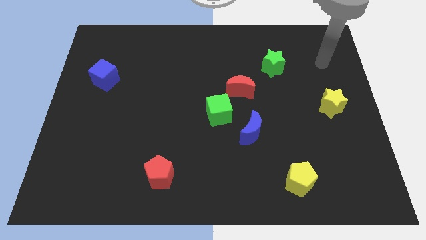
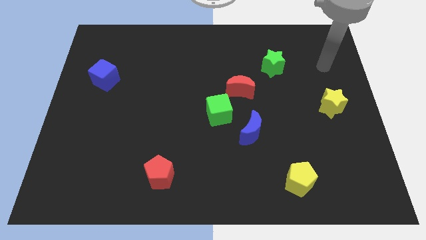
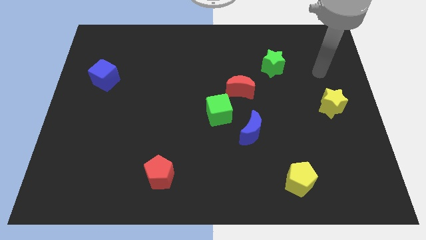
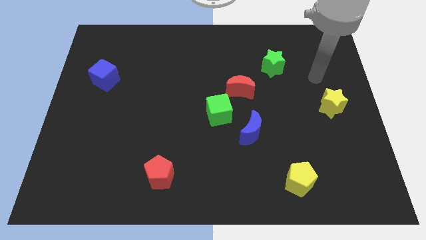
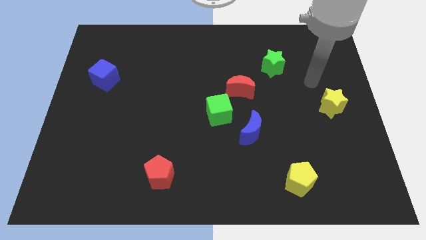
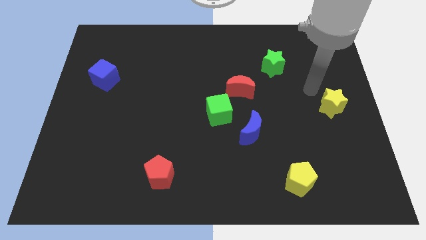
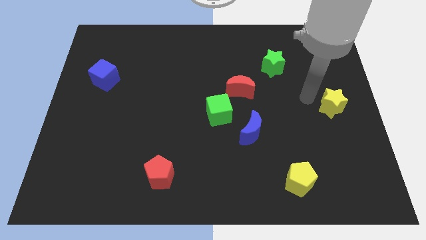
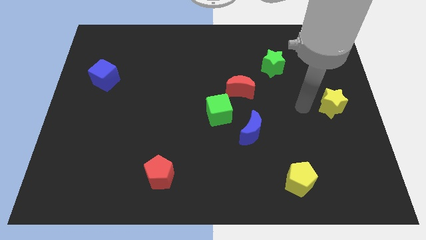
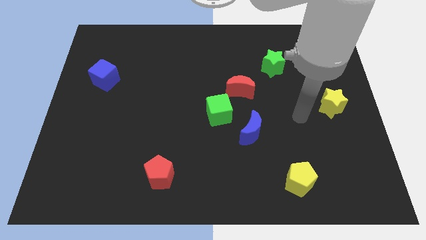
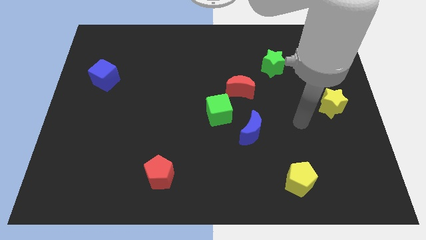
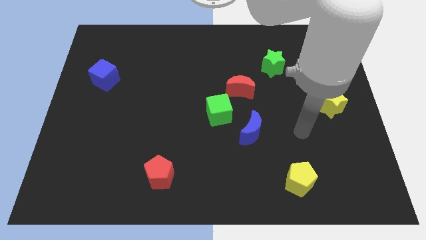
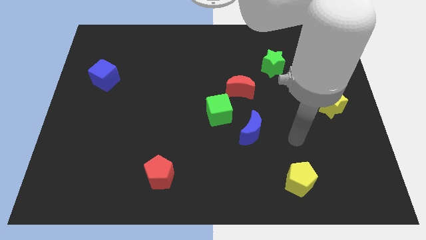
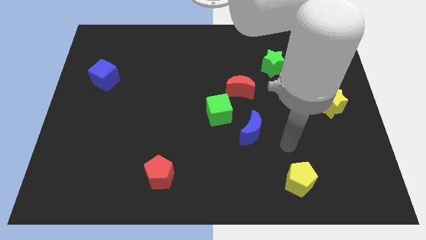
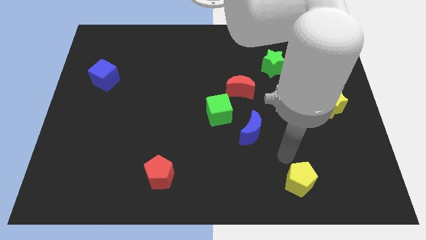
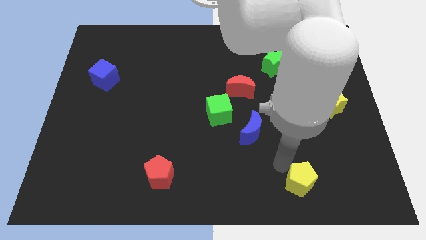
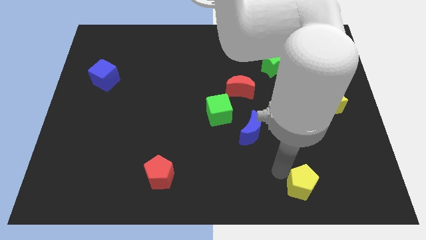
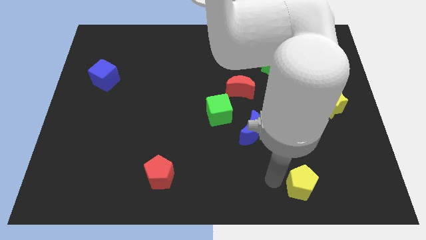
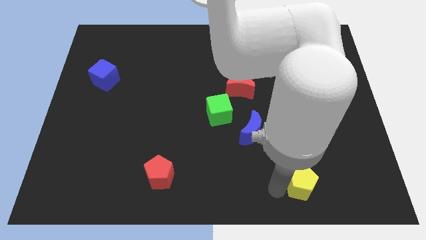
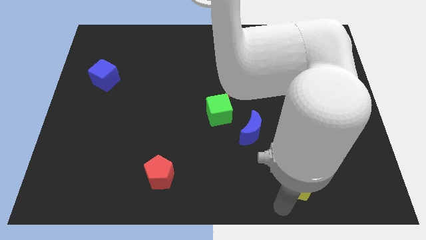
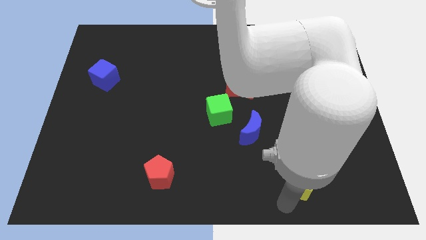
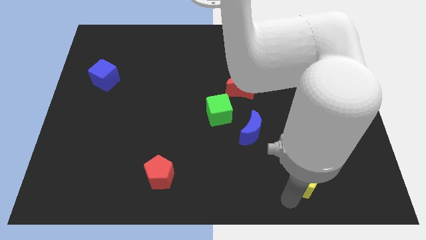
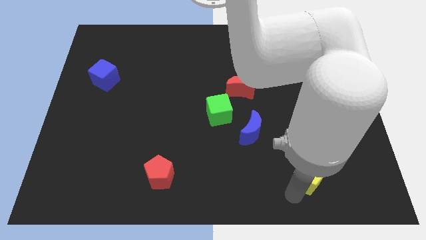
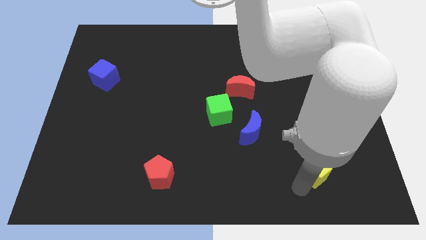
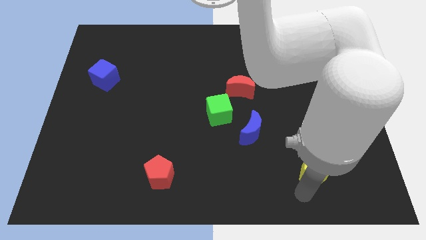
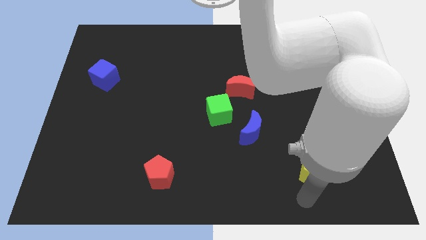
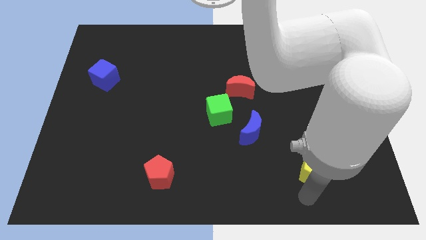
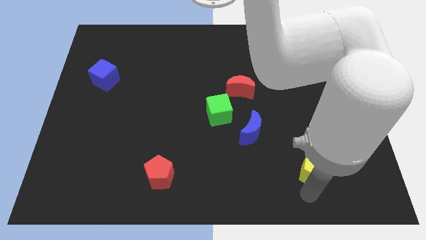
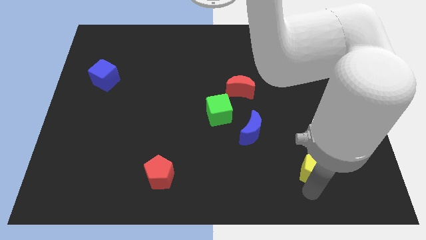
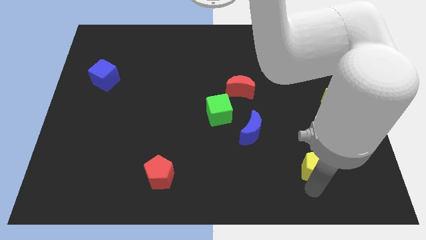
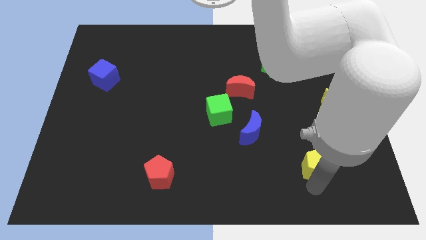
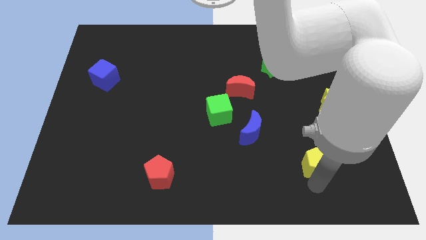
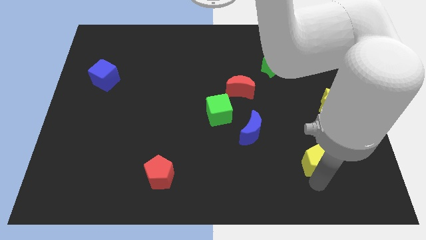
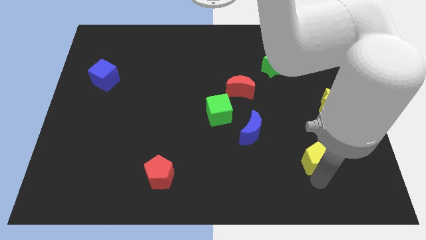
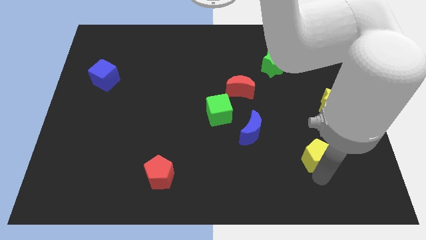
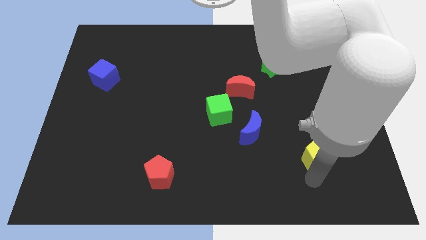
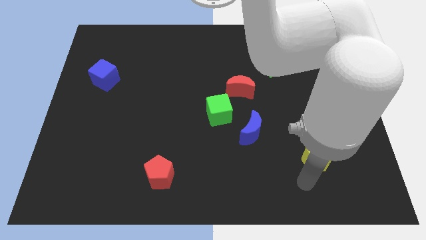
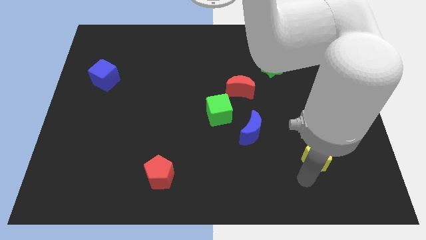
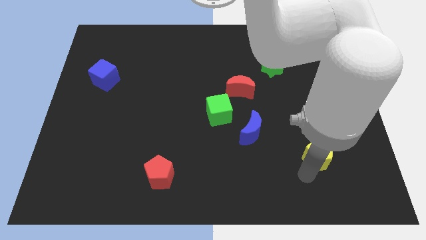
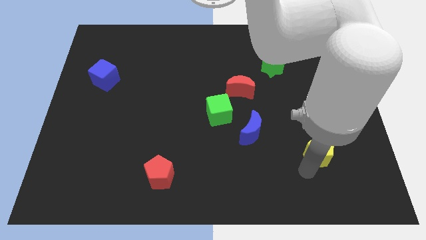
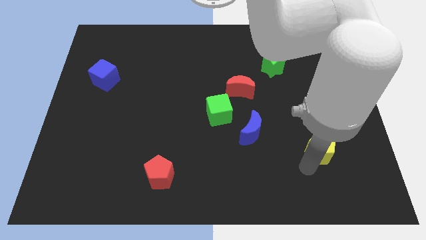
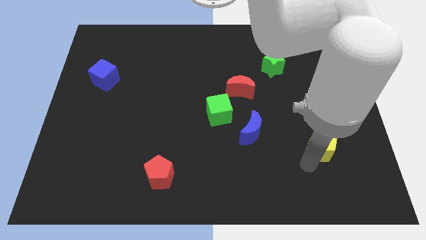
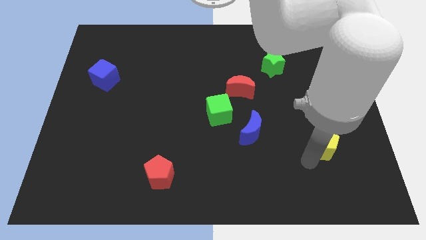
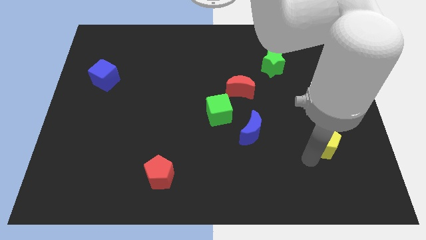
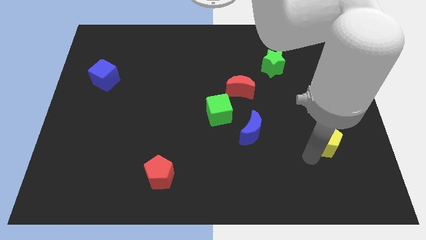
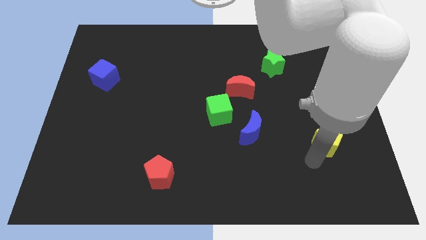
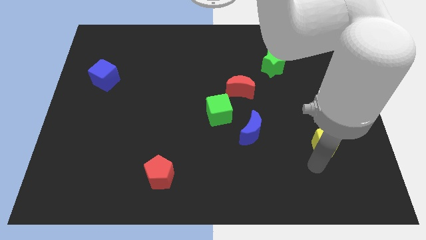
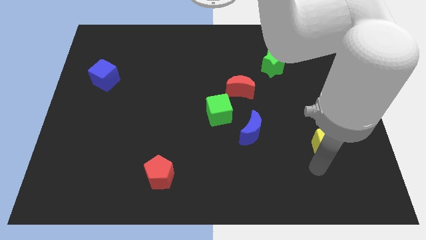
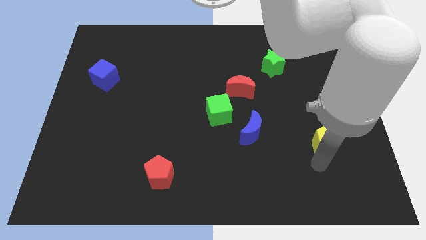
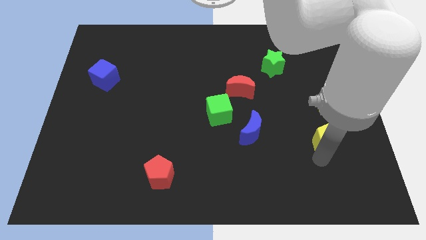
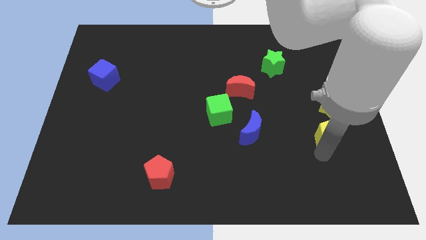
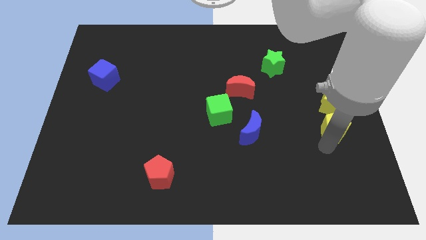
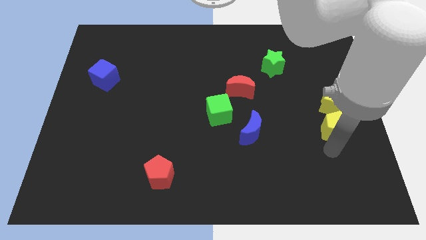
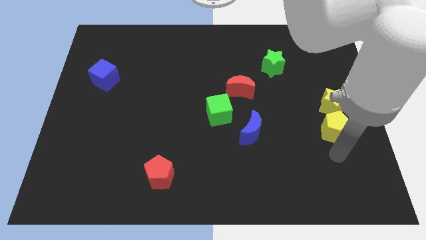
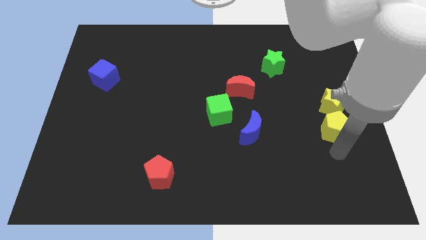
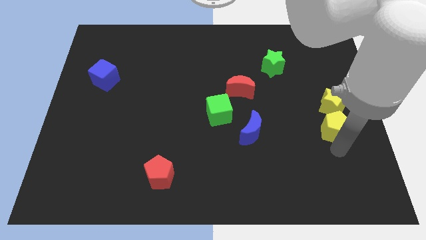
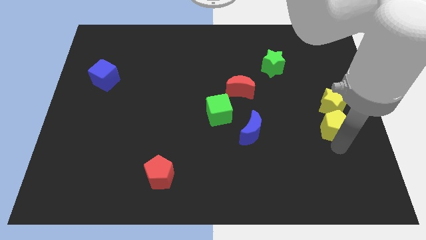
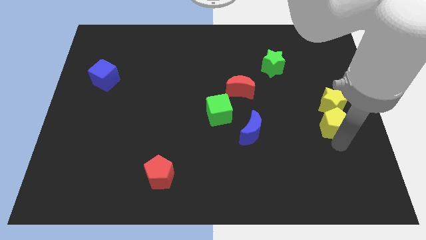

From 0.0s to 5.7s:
put the yellow pentagon next to the yellow star
